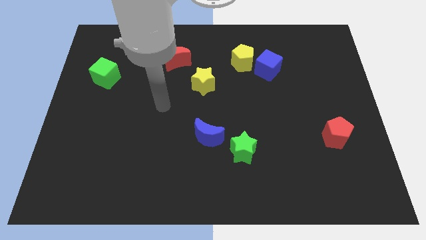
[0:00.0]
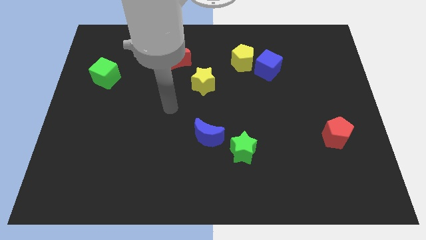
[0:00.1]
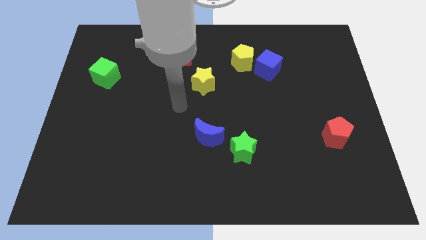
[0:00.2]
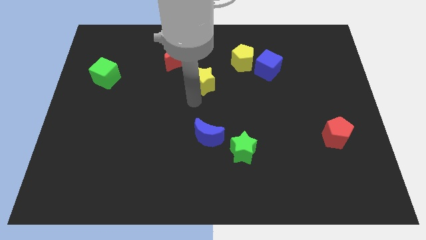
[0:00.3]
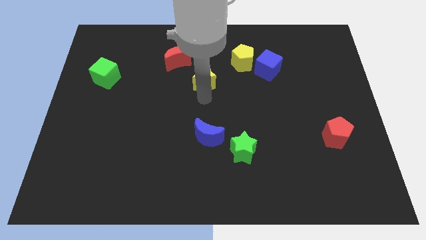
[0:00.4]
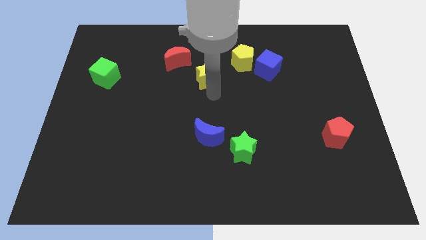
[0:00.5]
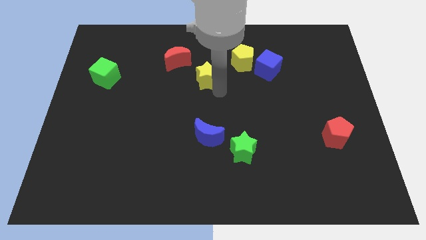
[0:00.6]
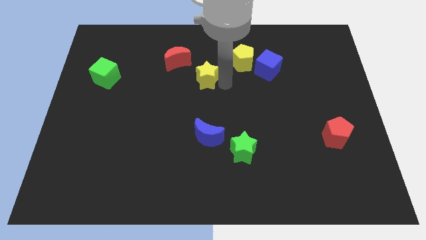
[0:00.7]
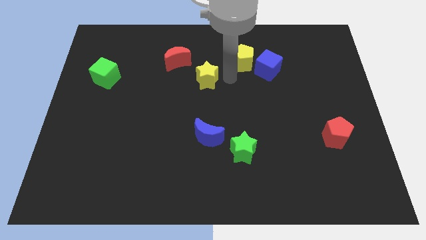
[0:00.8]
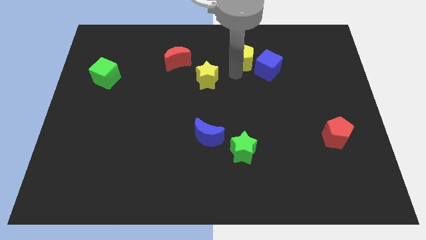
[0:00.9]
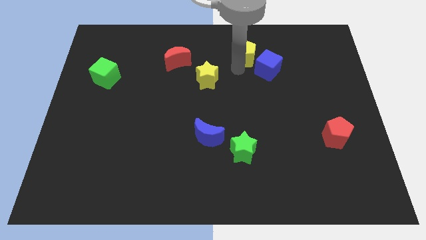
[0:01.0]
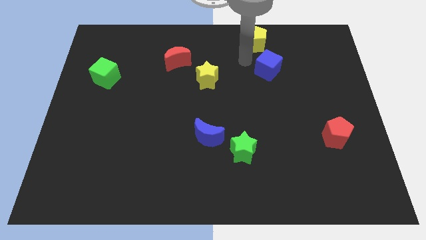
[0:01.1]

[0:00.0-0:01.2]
pull the blue cube apart from the yellow pentagon

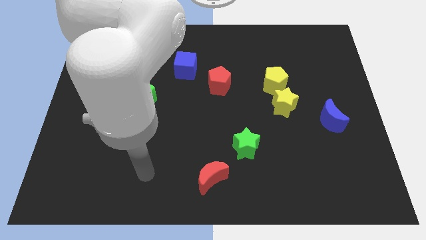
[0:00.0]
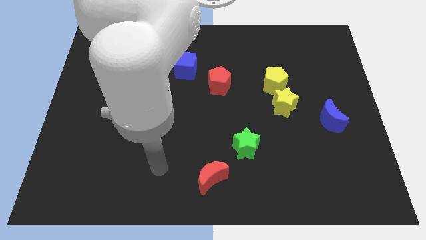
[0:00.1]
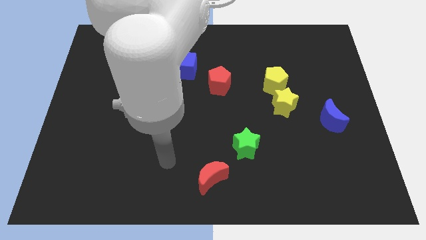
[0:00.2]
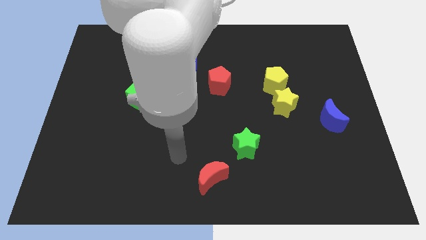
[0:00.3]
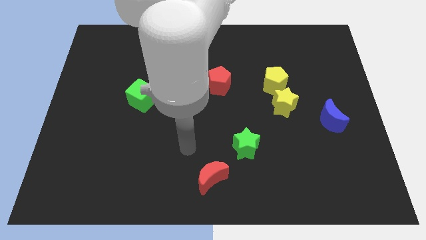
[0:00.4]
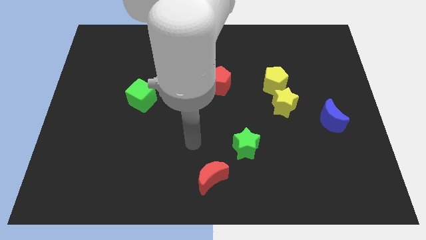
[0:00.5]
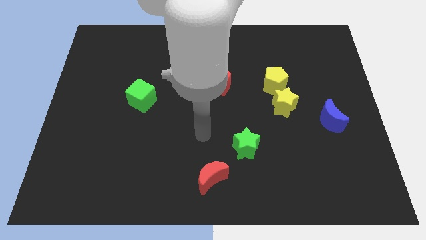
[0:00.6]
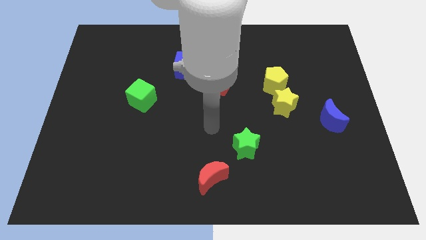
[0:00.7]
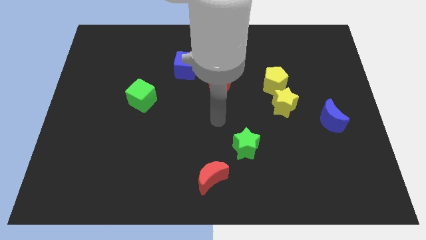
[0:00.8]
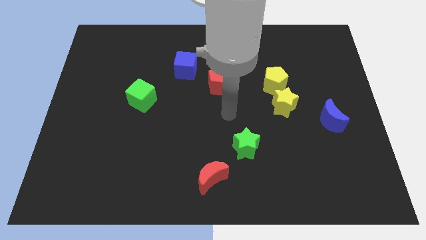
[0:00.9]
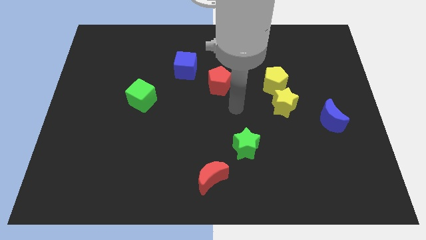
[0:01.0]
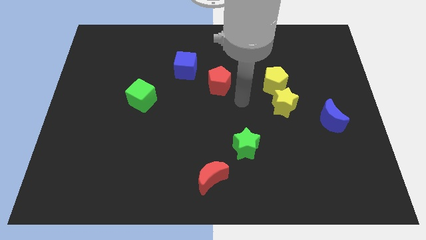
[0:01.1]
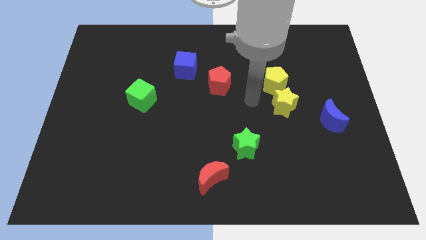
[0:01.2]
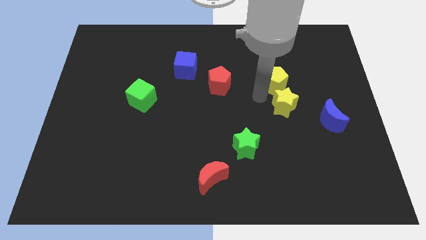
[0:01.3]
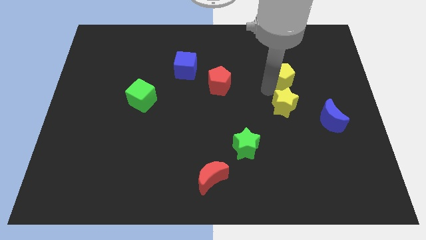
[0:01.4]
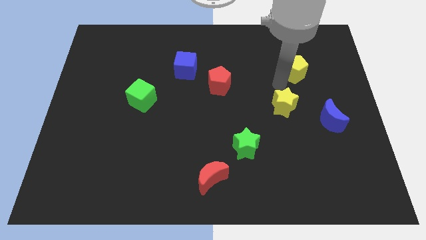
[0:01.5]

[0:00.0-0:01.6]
pull the yellow star apart from the yellow pentagon

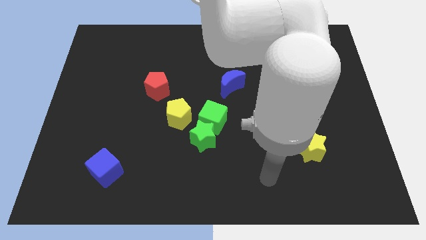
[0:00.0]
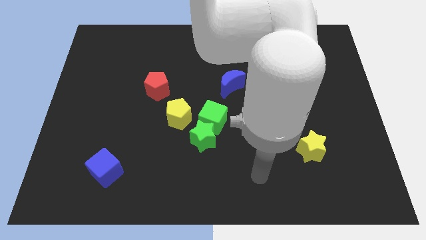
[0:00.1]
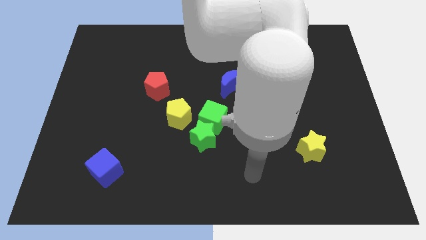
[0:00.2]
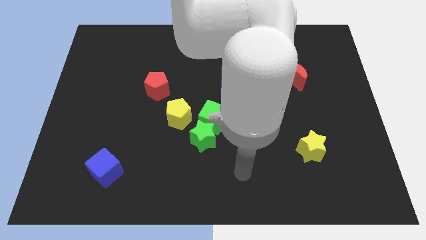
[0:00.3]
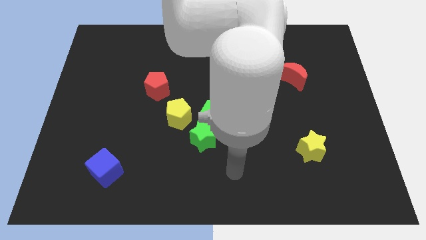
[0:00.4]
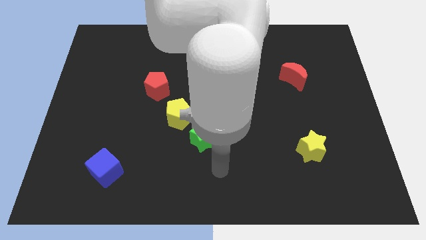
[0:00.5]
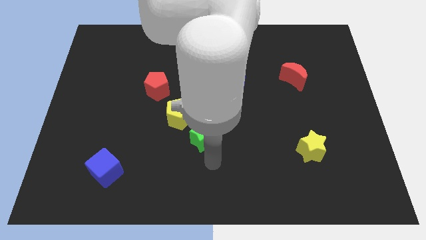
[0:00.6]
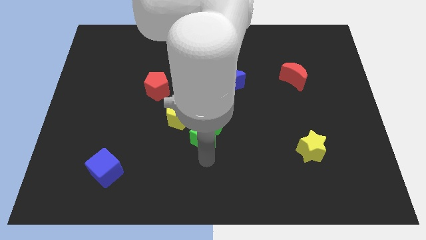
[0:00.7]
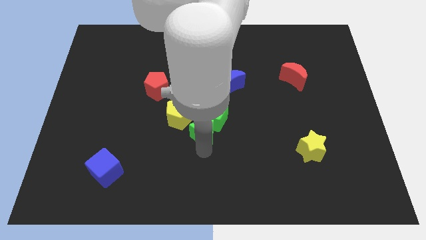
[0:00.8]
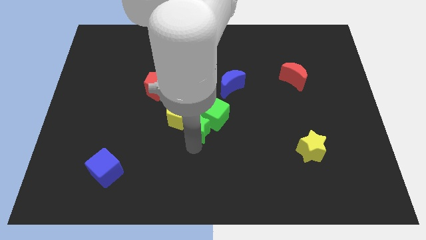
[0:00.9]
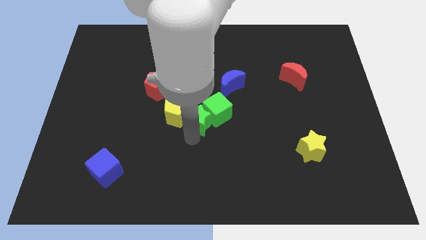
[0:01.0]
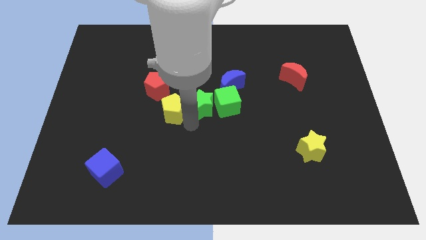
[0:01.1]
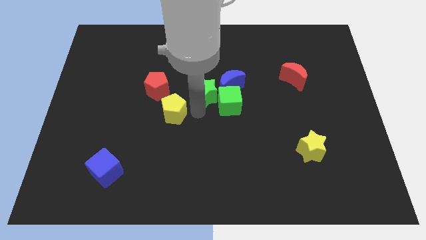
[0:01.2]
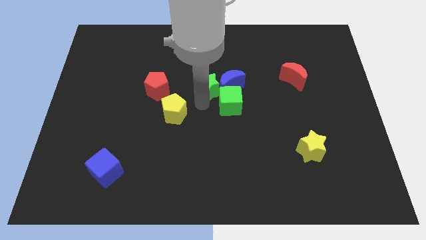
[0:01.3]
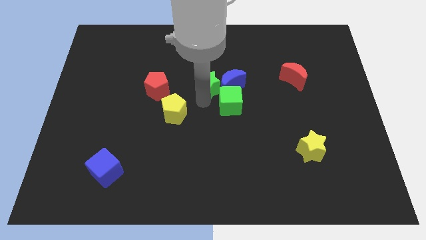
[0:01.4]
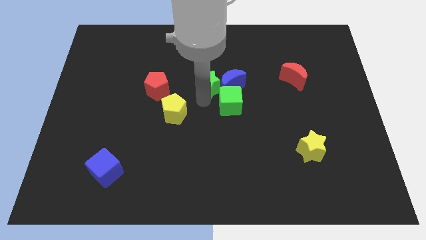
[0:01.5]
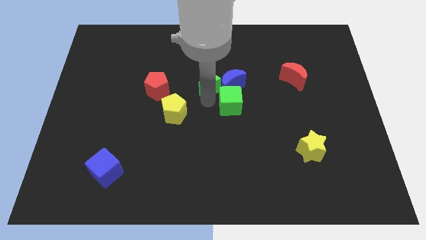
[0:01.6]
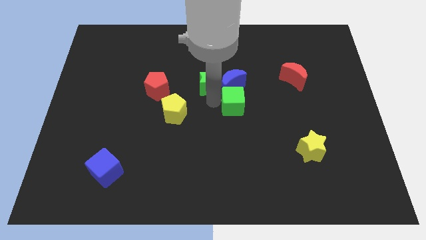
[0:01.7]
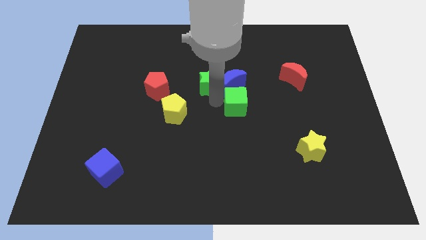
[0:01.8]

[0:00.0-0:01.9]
pull the green cube apart from the green star and yellow pentagon

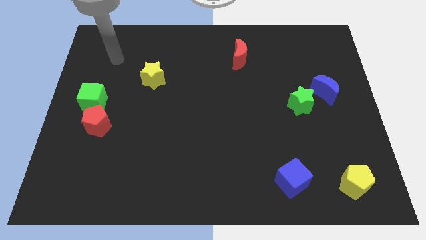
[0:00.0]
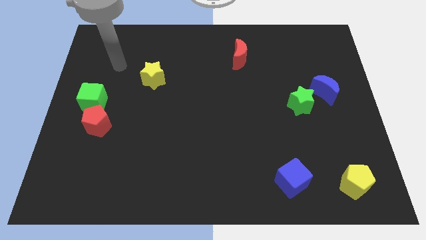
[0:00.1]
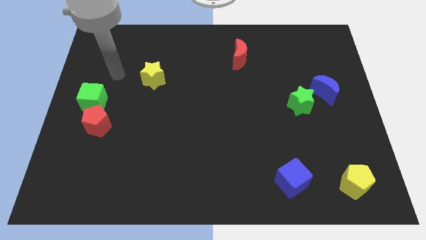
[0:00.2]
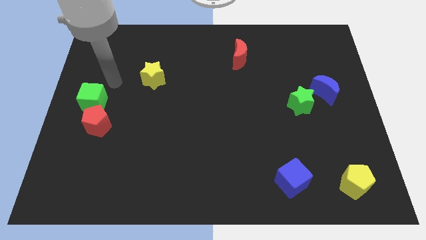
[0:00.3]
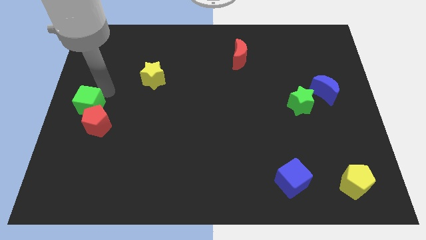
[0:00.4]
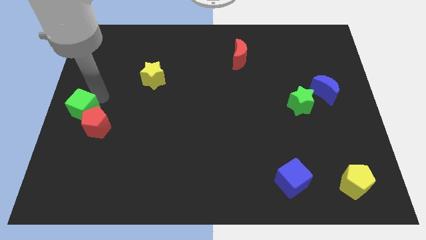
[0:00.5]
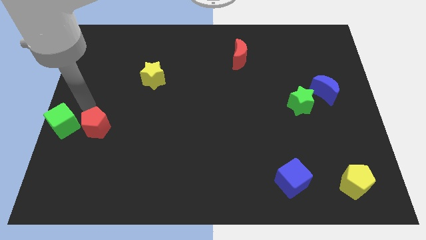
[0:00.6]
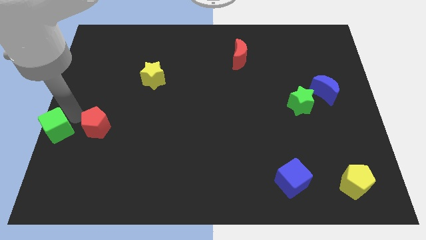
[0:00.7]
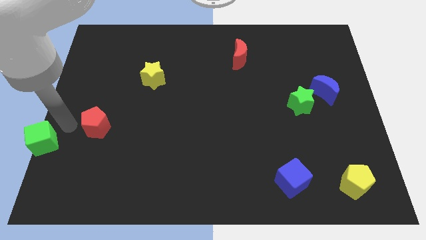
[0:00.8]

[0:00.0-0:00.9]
separate the red pentagon from the green cube

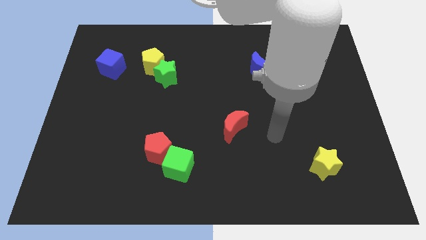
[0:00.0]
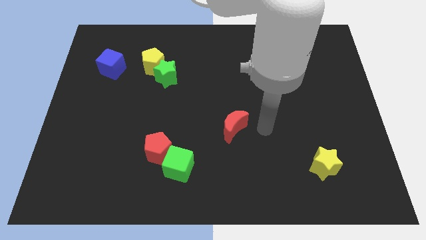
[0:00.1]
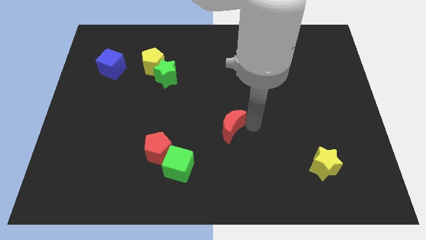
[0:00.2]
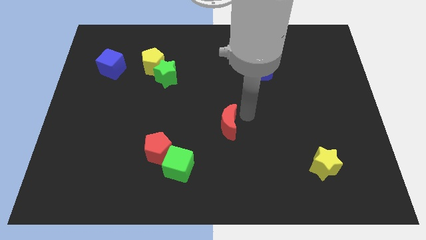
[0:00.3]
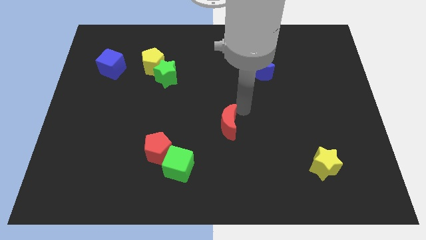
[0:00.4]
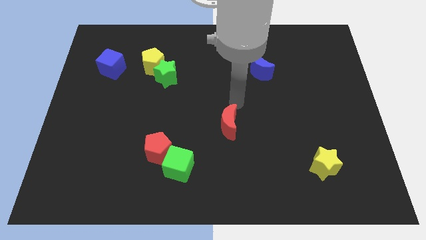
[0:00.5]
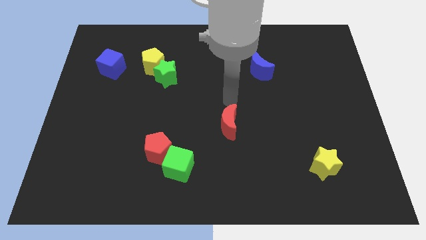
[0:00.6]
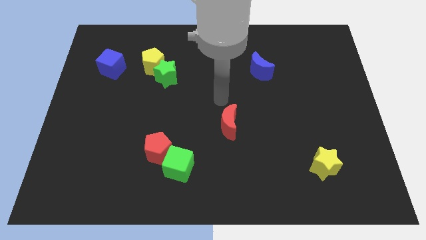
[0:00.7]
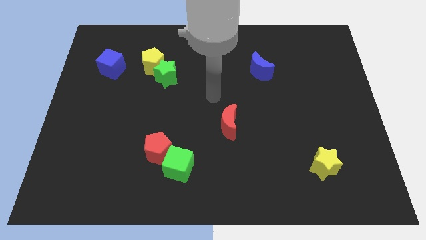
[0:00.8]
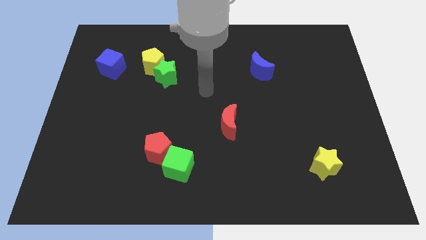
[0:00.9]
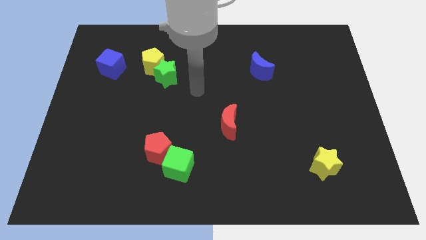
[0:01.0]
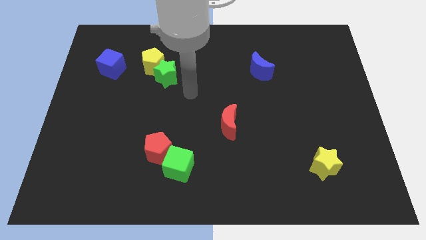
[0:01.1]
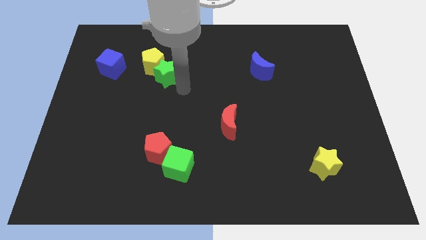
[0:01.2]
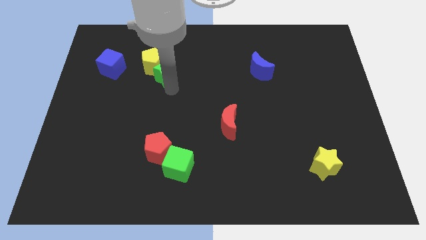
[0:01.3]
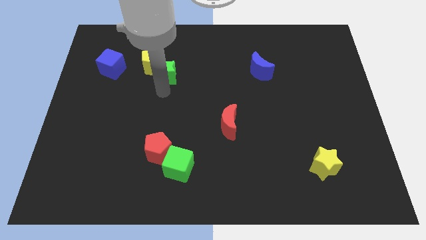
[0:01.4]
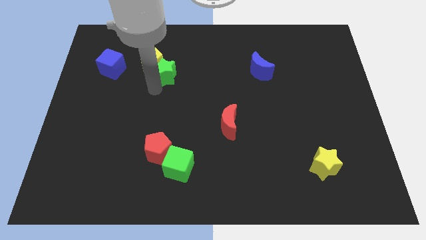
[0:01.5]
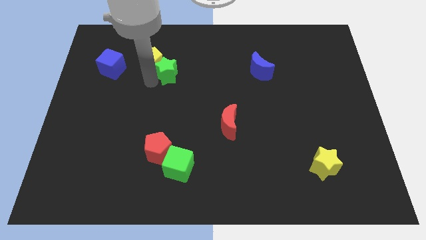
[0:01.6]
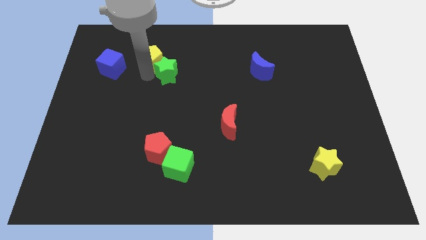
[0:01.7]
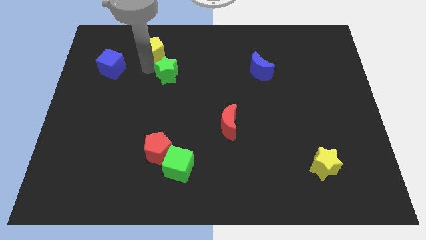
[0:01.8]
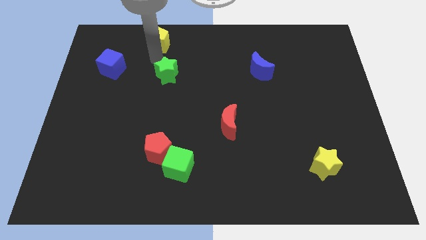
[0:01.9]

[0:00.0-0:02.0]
separate the green star from the yellow pentagon

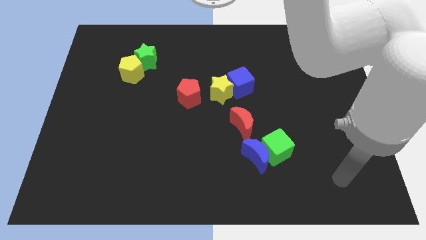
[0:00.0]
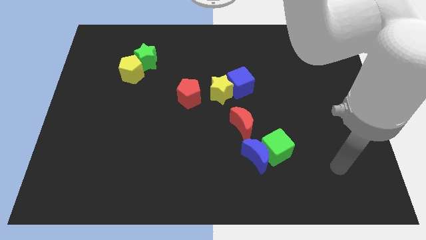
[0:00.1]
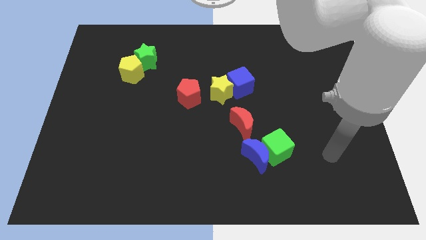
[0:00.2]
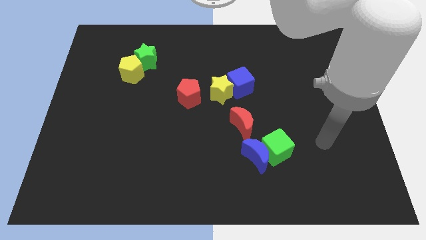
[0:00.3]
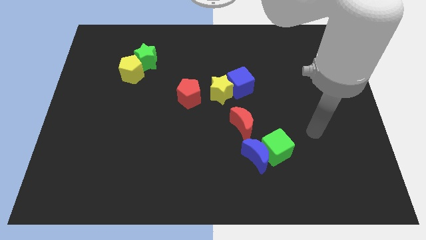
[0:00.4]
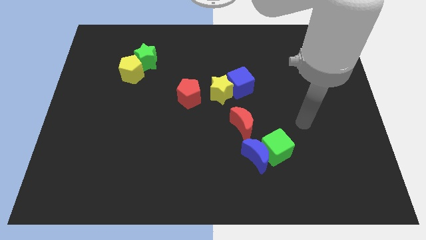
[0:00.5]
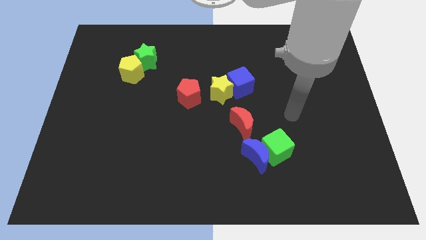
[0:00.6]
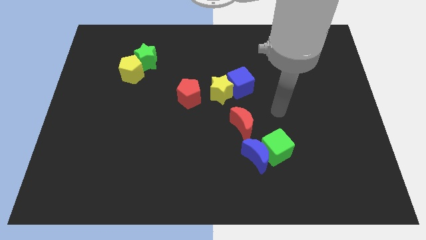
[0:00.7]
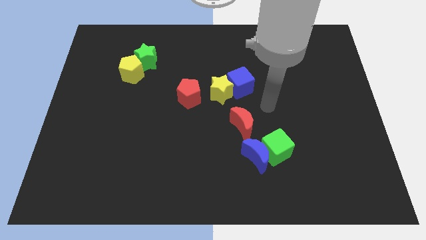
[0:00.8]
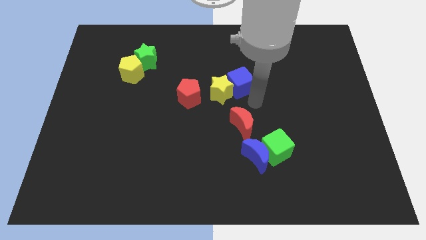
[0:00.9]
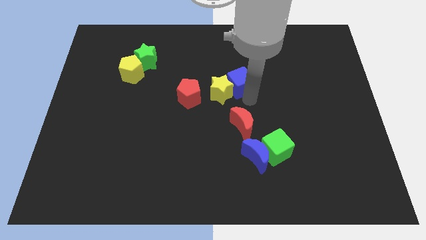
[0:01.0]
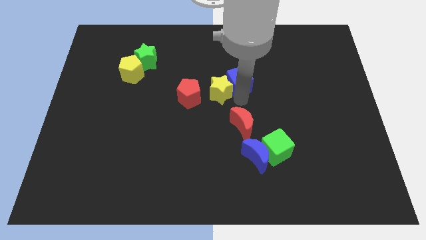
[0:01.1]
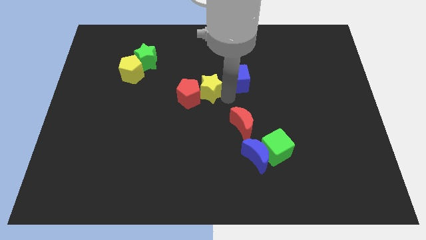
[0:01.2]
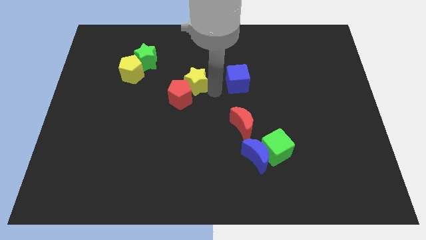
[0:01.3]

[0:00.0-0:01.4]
pull the blue cube apart from the yellow star

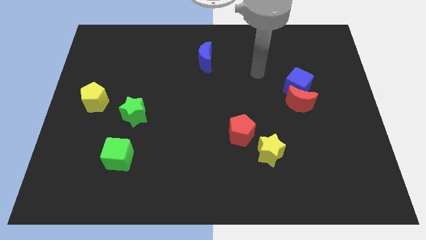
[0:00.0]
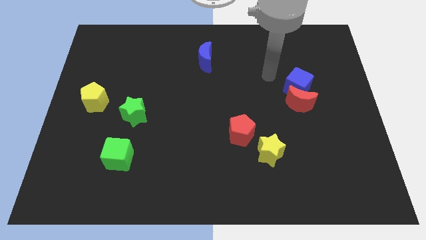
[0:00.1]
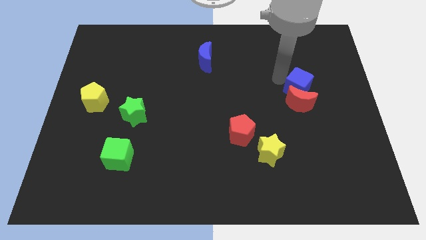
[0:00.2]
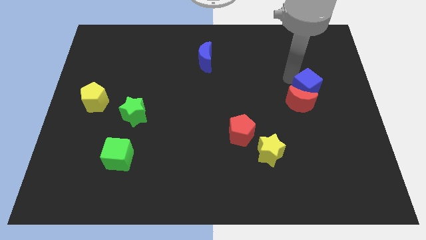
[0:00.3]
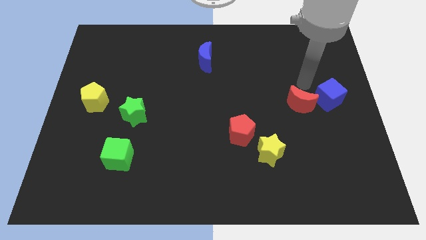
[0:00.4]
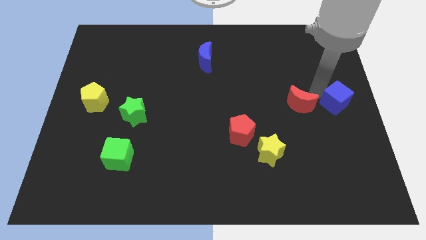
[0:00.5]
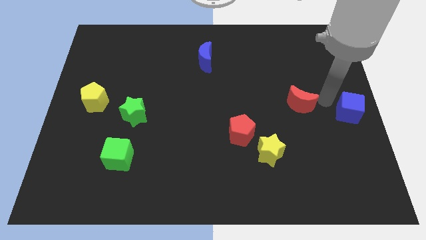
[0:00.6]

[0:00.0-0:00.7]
separate the red moon from the blue cube
